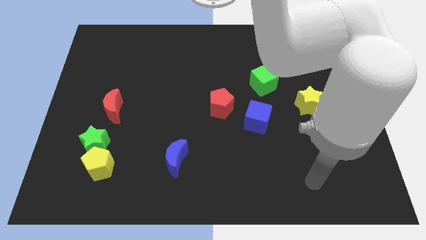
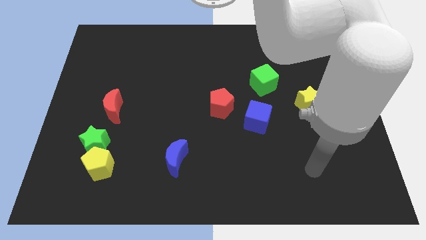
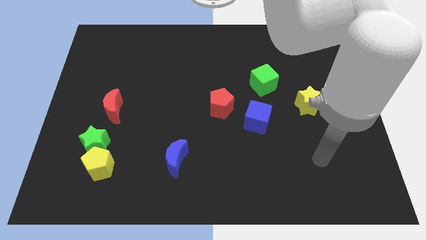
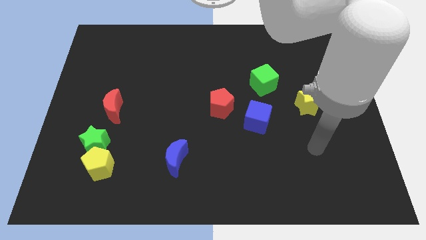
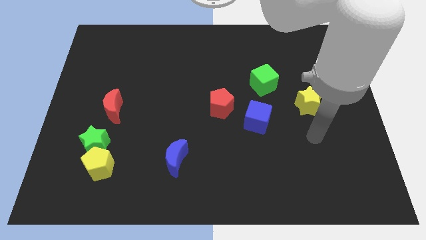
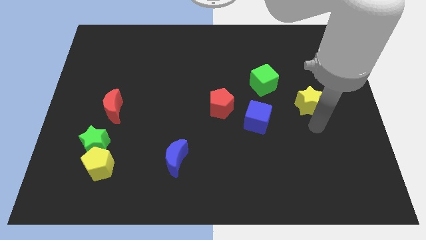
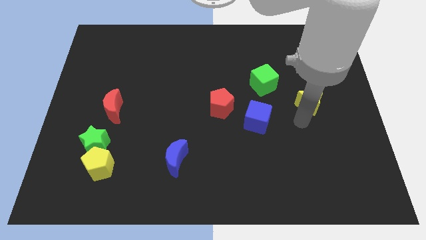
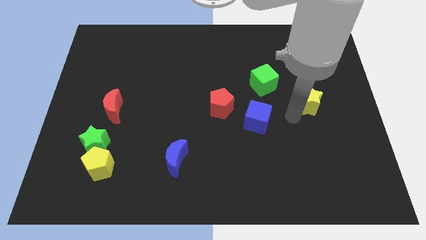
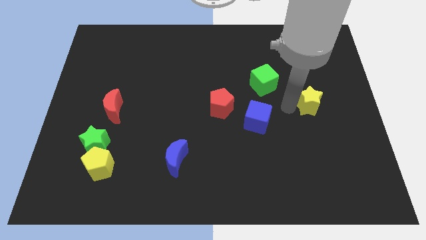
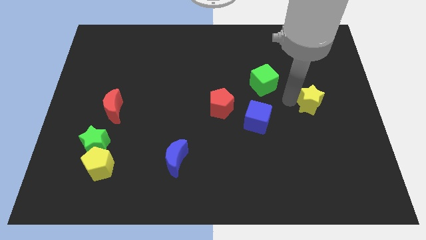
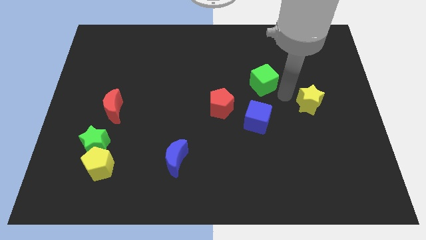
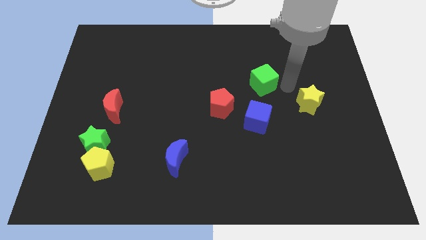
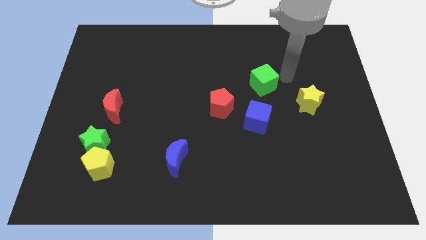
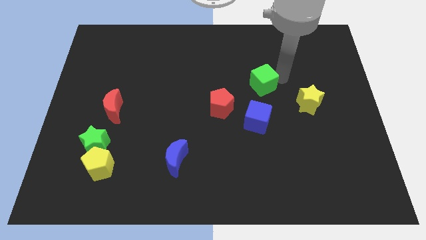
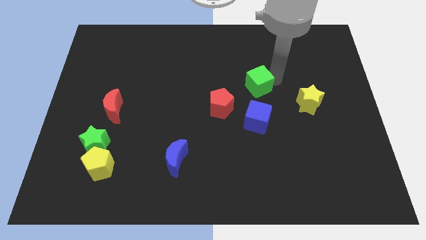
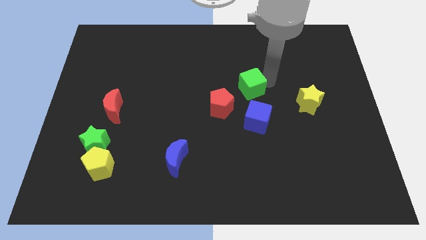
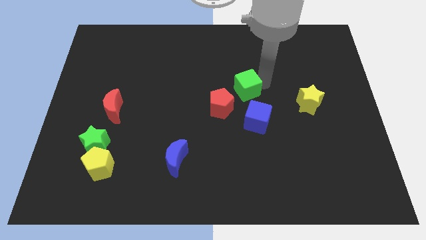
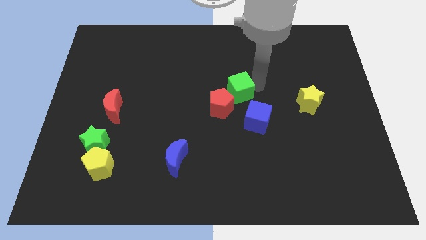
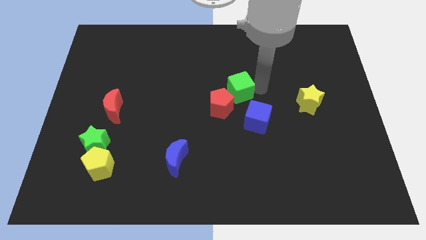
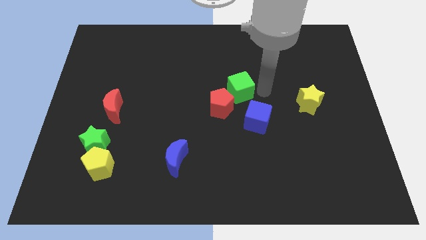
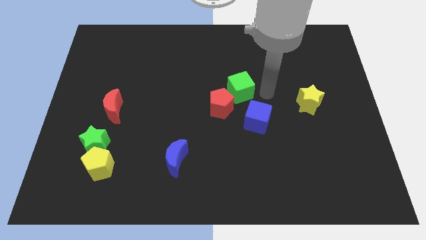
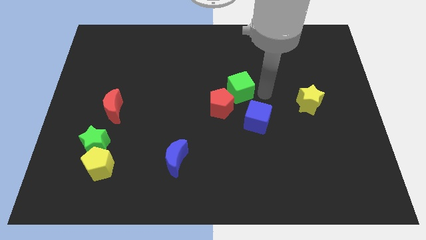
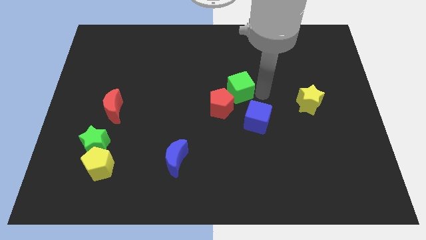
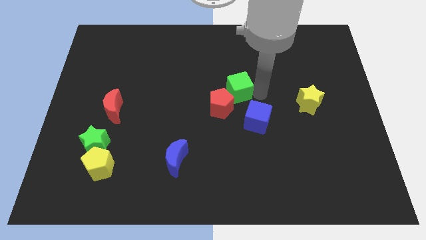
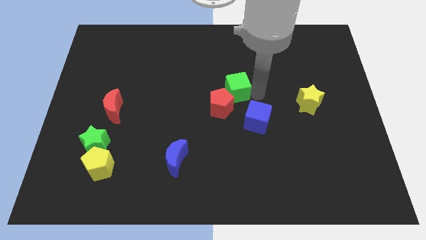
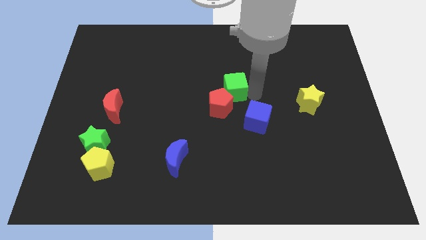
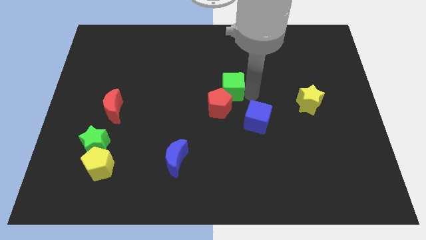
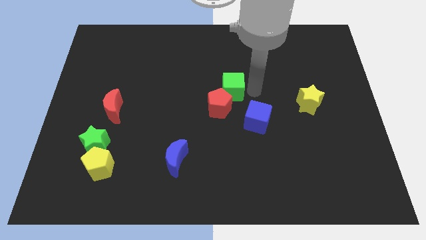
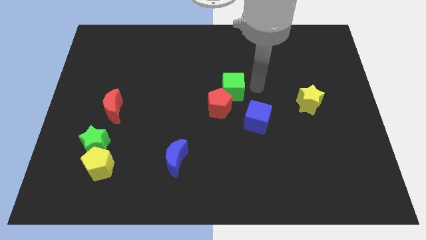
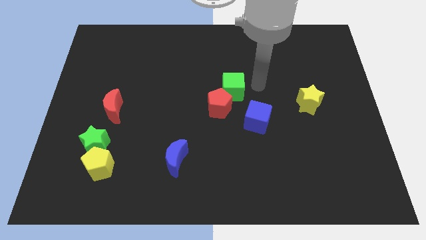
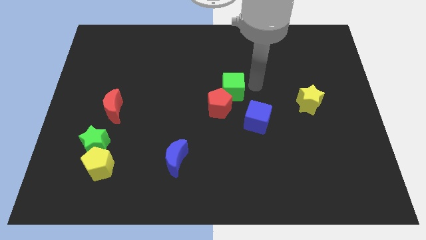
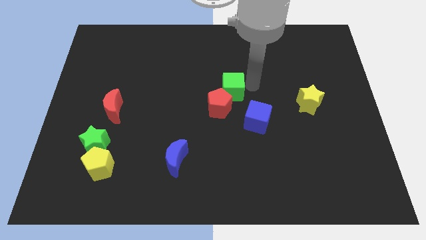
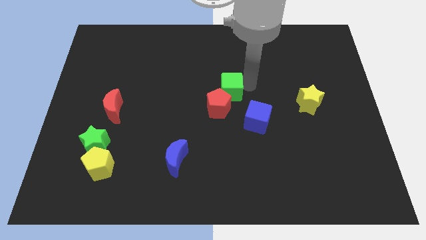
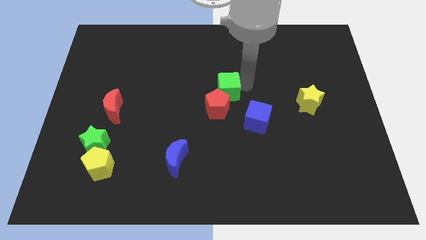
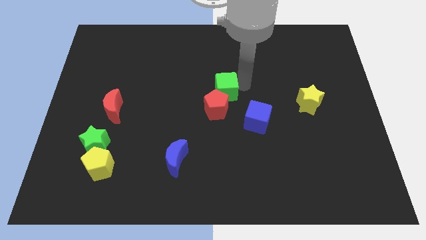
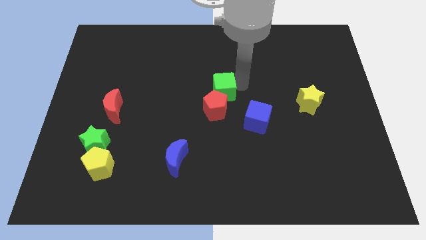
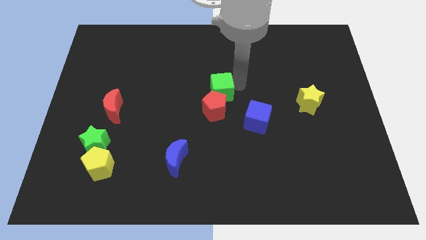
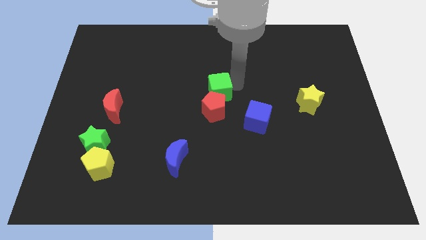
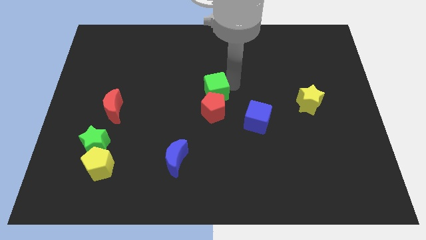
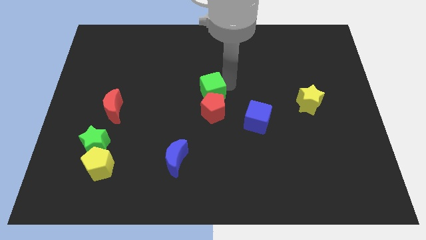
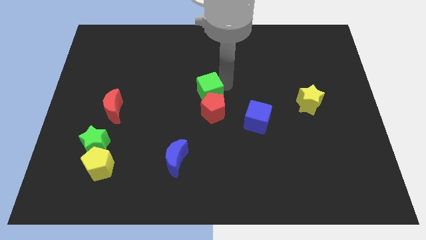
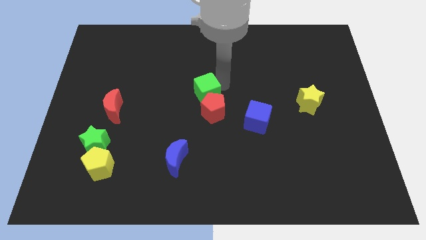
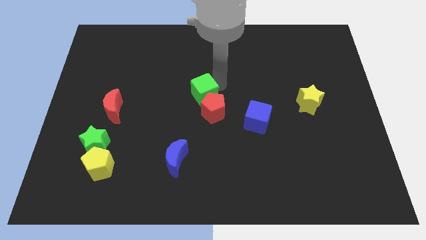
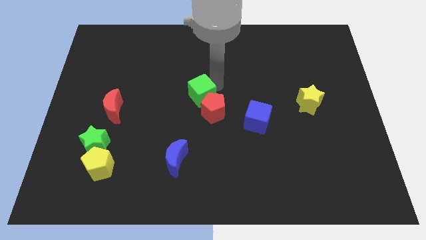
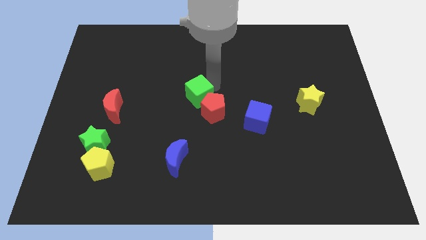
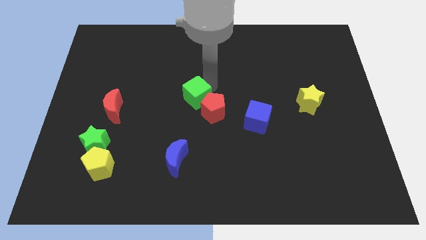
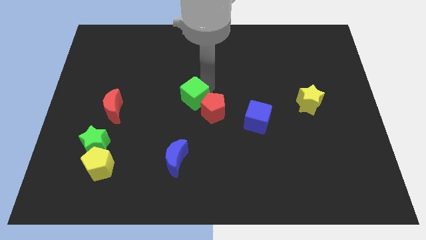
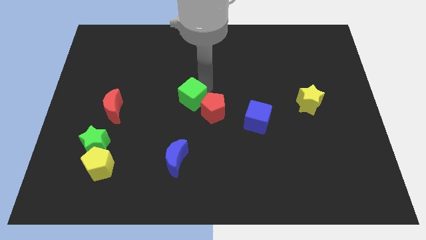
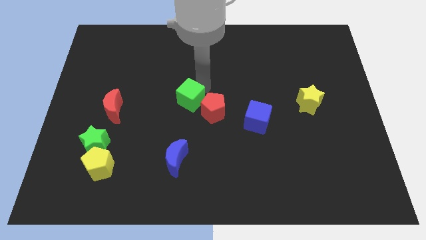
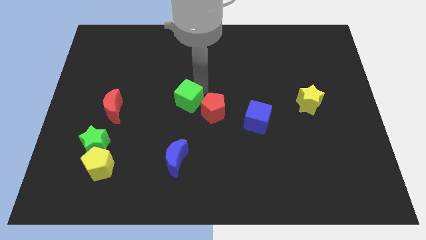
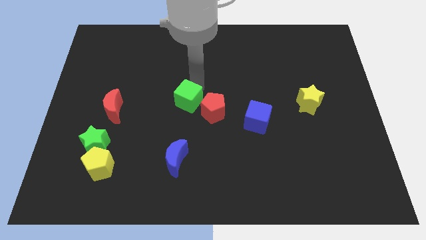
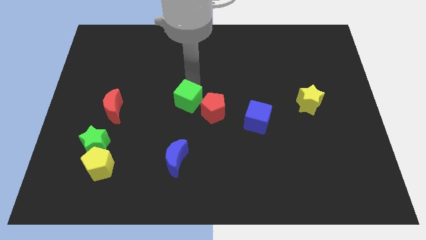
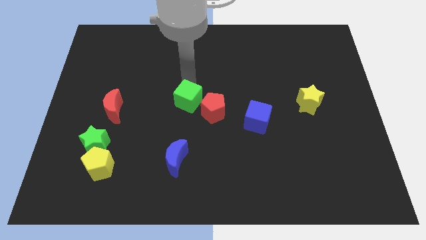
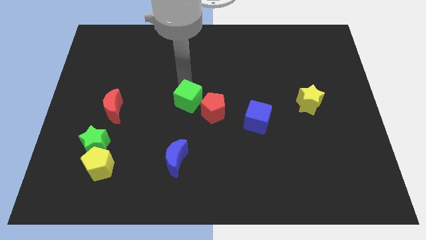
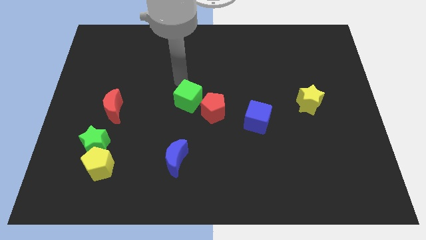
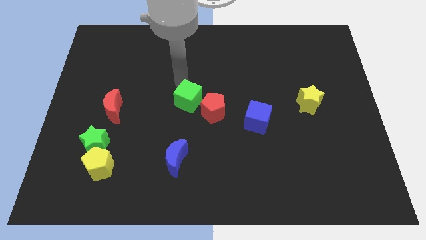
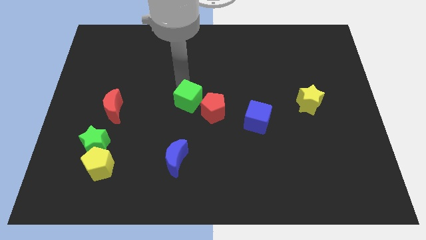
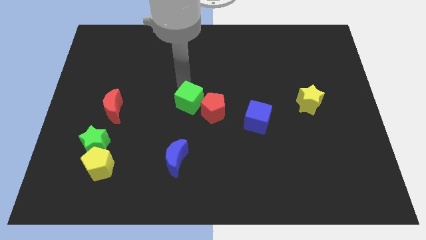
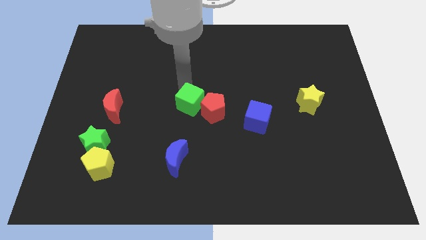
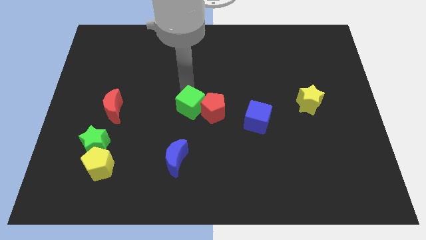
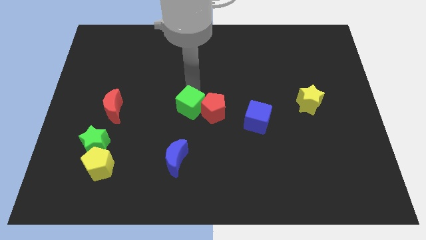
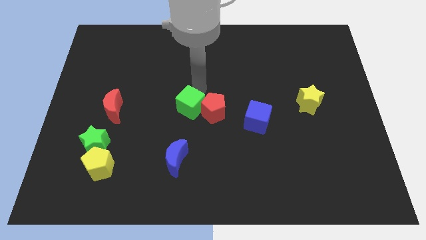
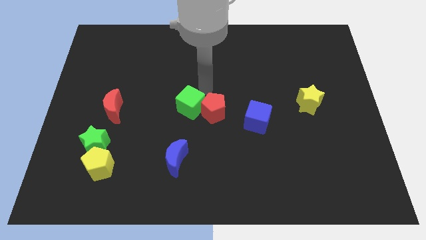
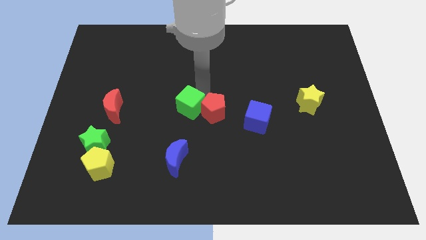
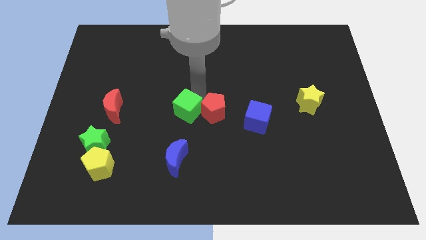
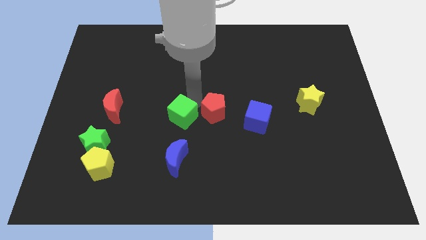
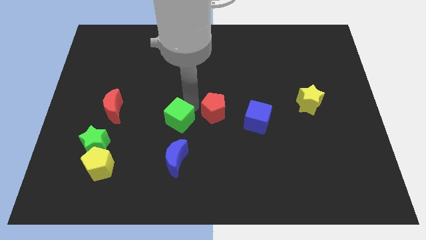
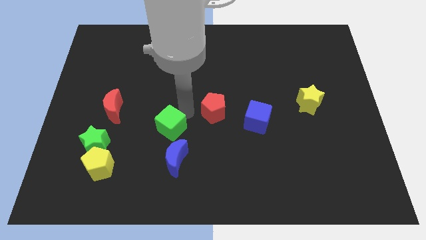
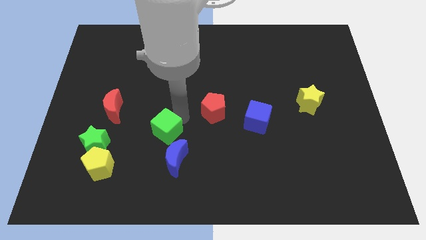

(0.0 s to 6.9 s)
move the green cube to the top left side of the blue moon

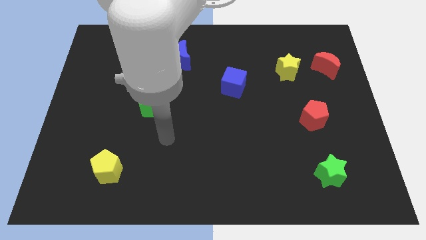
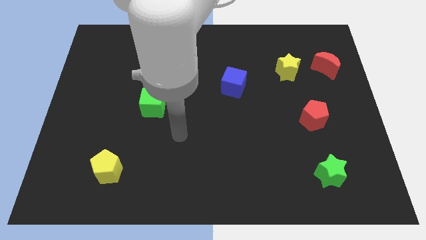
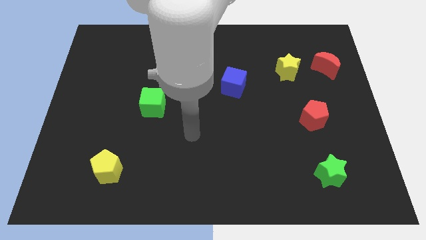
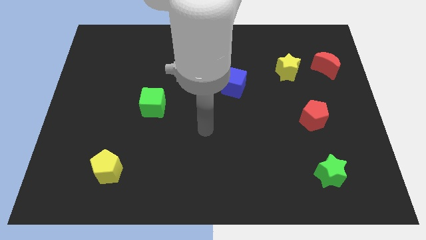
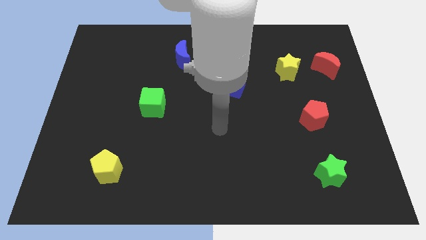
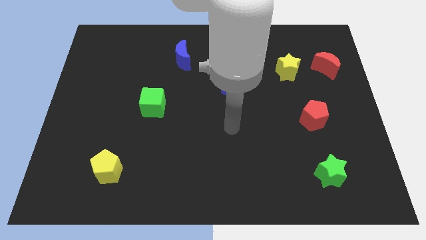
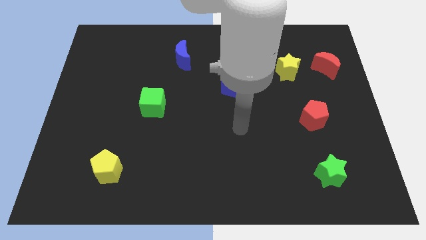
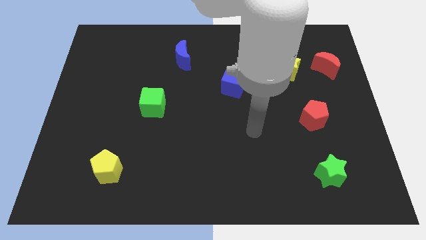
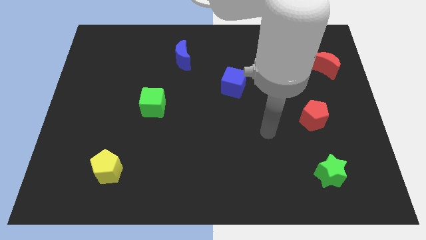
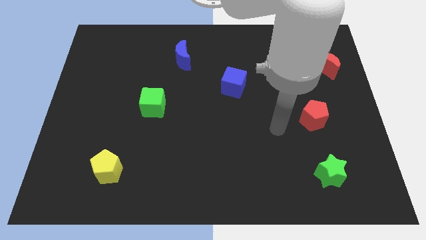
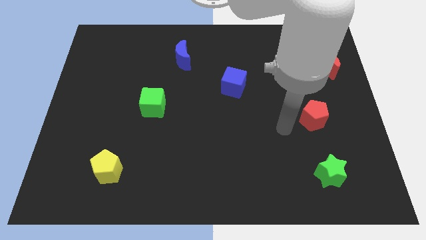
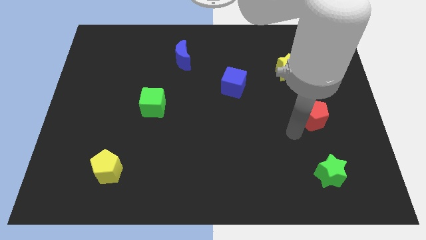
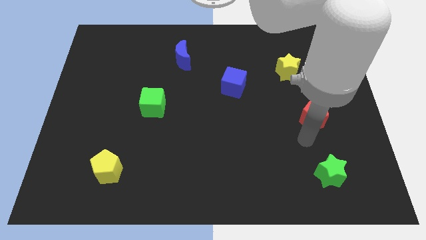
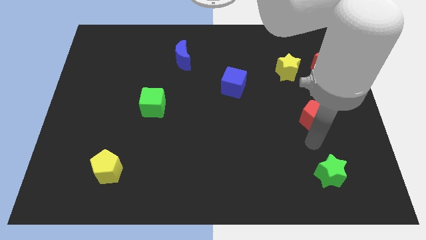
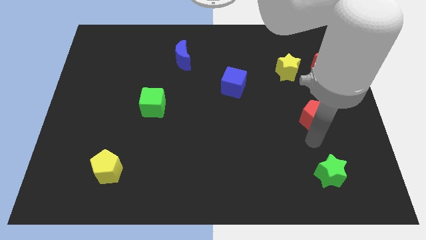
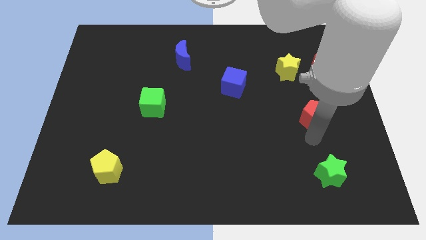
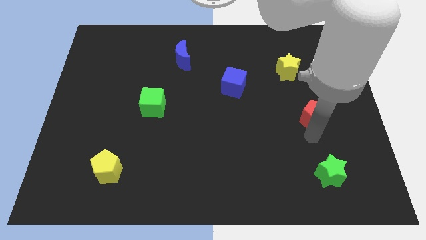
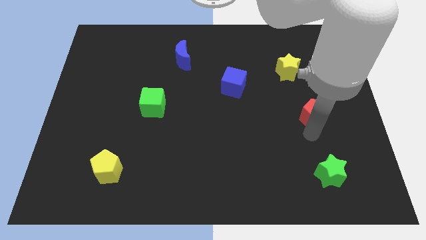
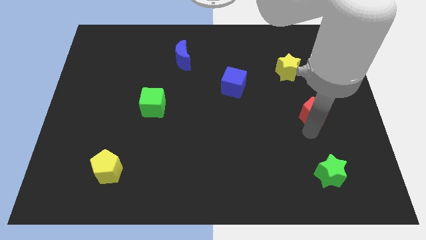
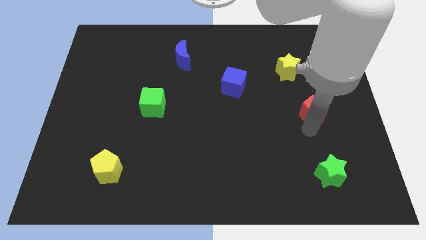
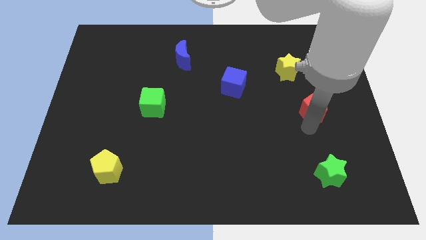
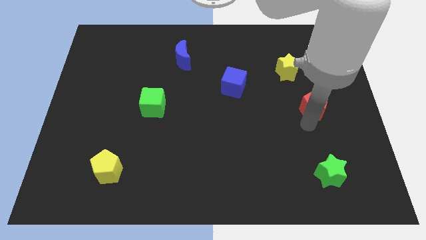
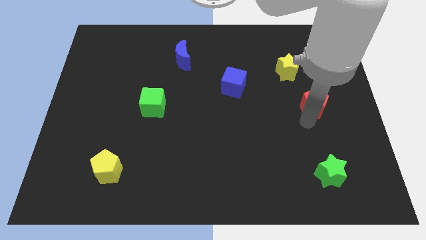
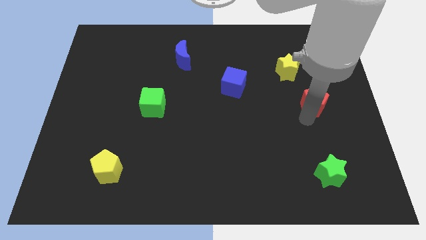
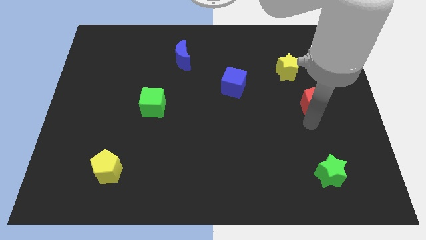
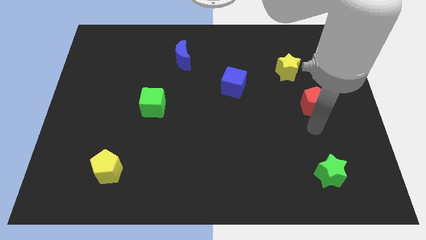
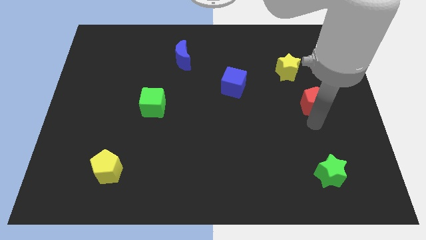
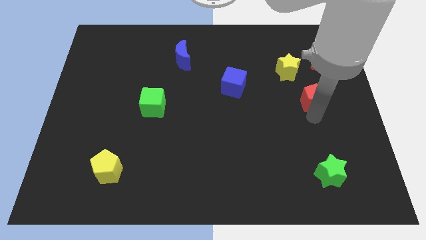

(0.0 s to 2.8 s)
move the red pentagon to the bottom right of the yellow star
